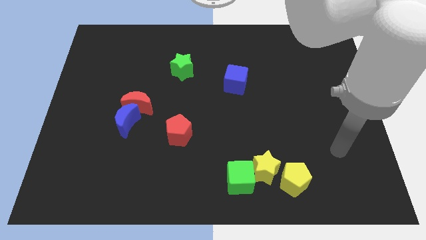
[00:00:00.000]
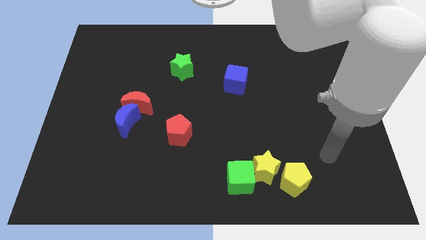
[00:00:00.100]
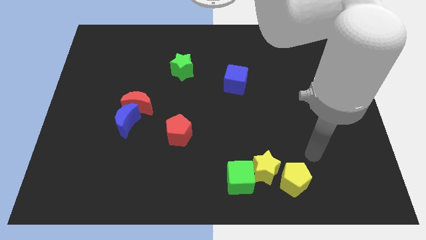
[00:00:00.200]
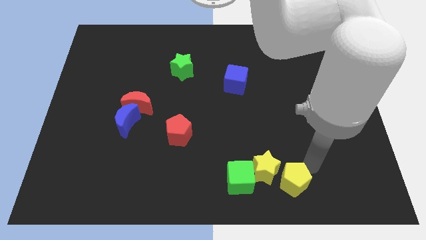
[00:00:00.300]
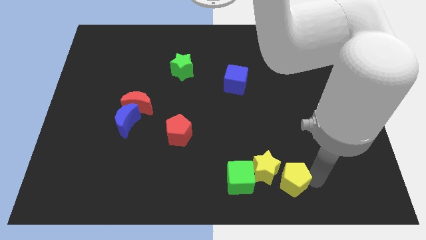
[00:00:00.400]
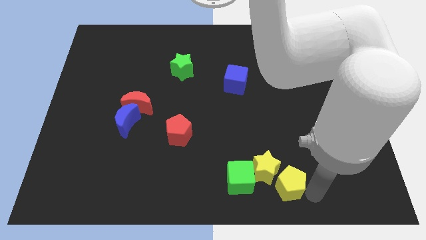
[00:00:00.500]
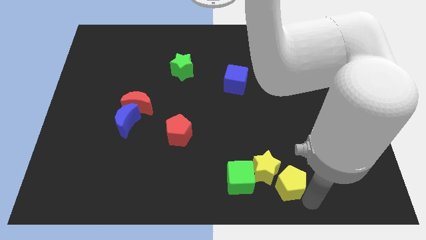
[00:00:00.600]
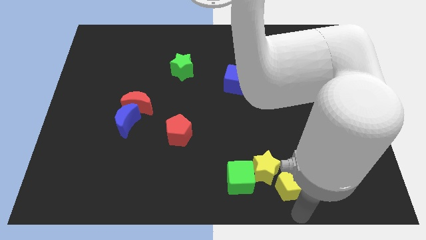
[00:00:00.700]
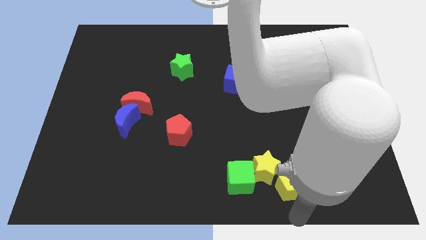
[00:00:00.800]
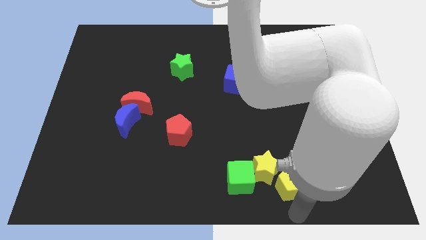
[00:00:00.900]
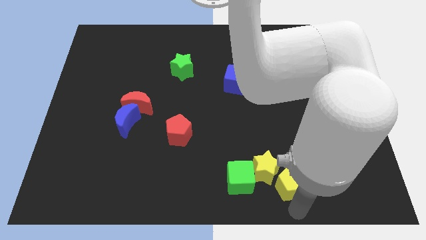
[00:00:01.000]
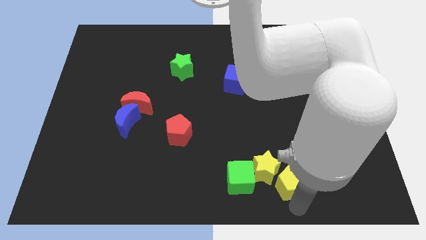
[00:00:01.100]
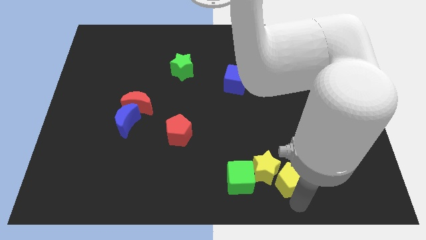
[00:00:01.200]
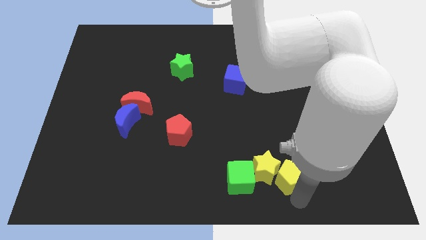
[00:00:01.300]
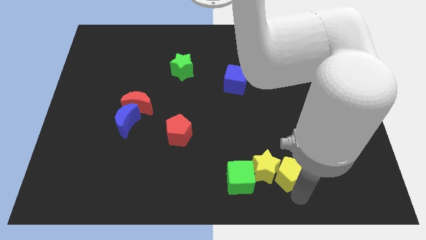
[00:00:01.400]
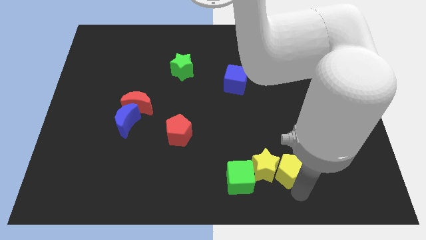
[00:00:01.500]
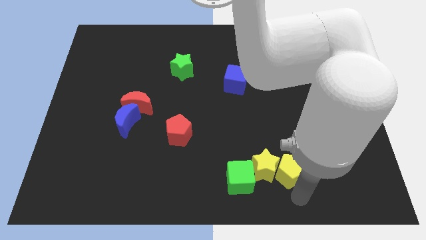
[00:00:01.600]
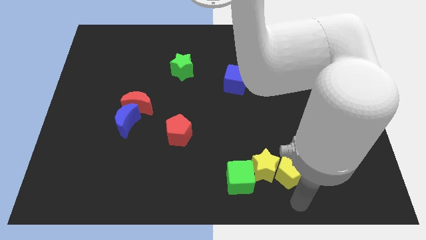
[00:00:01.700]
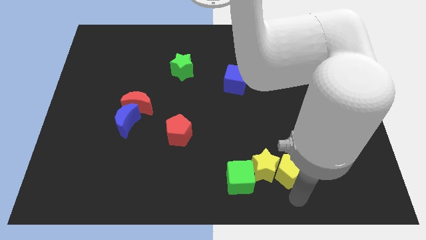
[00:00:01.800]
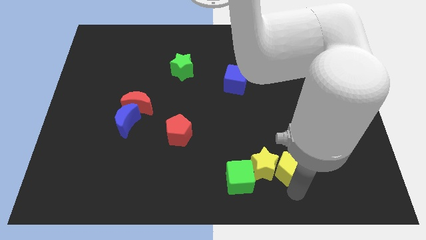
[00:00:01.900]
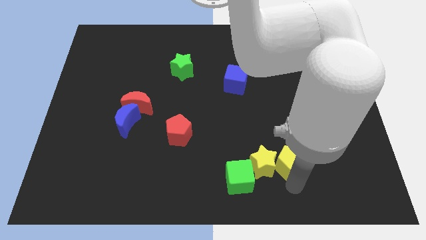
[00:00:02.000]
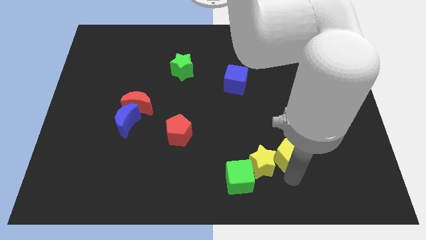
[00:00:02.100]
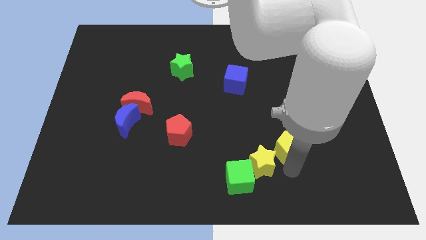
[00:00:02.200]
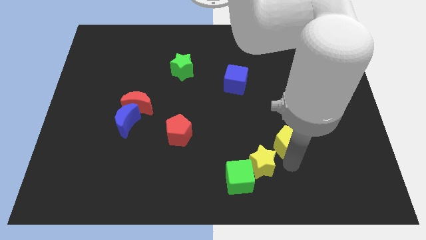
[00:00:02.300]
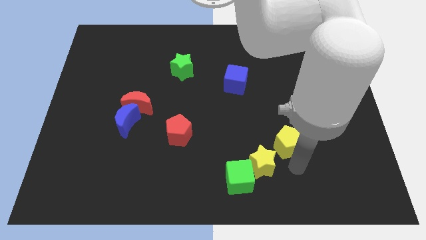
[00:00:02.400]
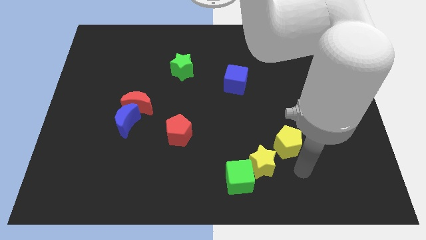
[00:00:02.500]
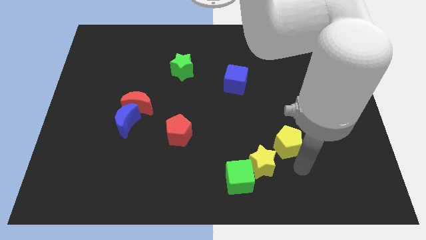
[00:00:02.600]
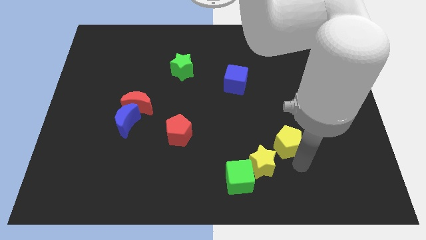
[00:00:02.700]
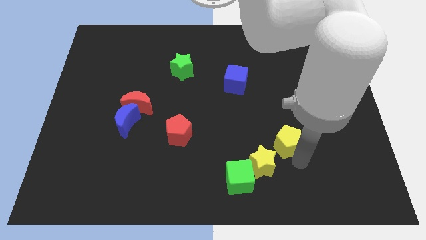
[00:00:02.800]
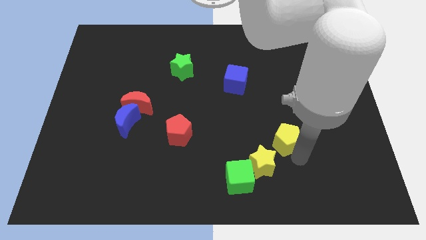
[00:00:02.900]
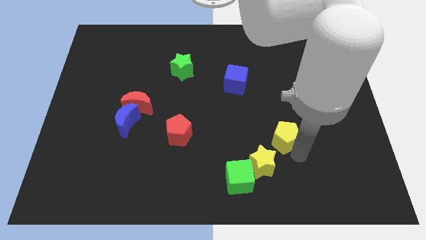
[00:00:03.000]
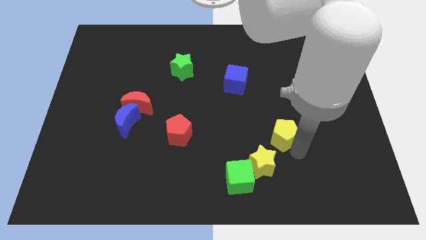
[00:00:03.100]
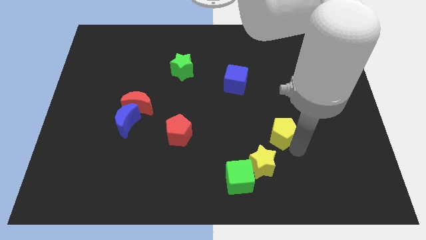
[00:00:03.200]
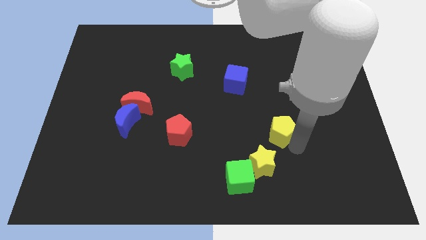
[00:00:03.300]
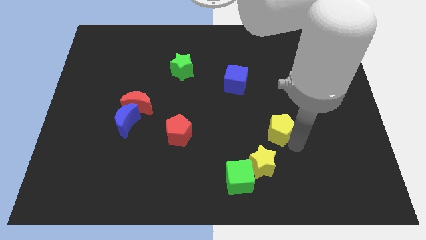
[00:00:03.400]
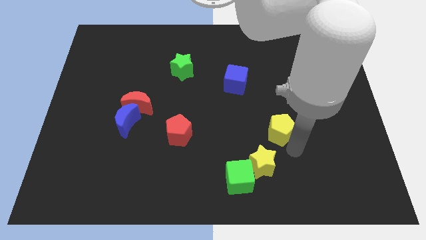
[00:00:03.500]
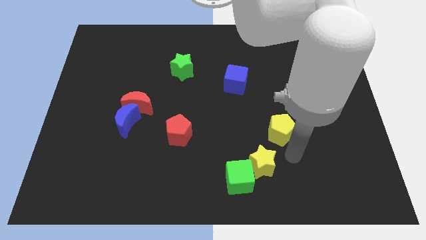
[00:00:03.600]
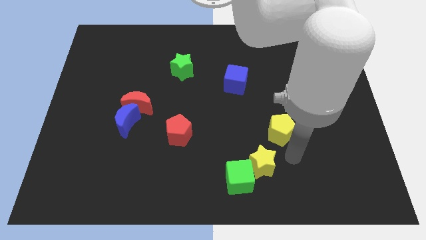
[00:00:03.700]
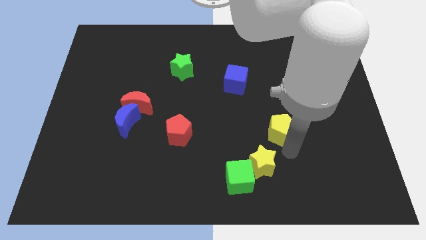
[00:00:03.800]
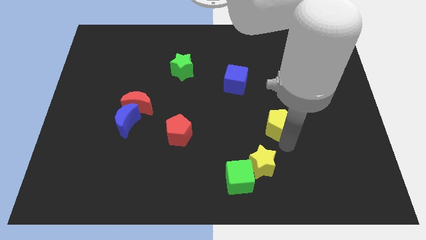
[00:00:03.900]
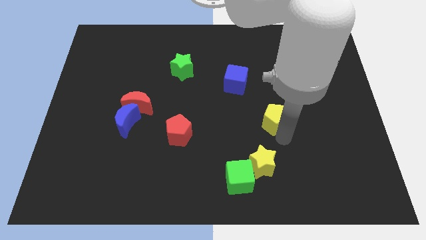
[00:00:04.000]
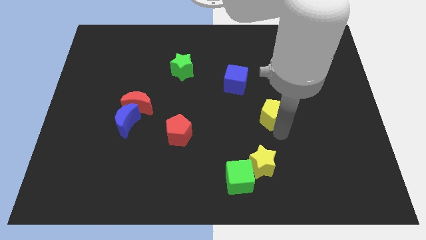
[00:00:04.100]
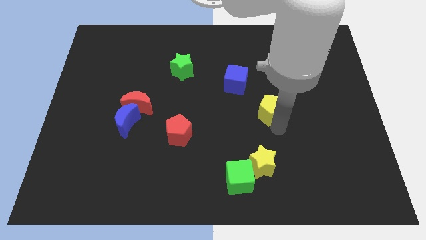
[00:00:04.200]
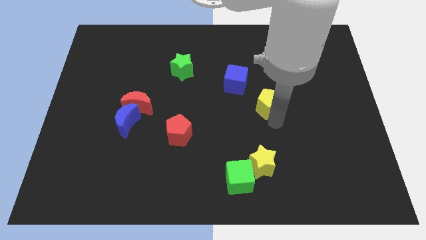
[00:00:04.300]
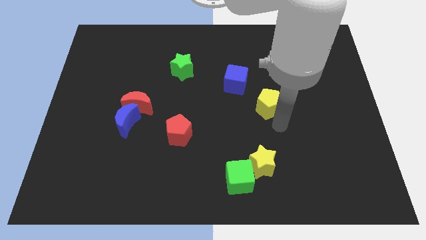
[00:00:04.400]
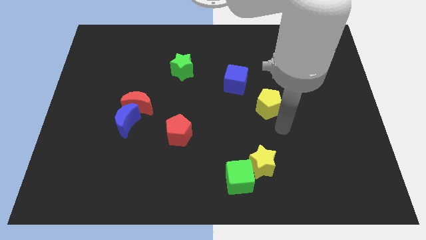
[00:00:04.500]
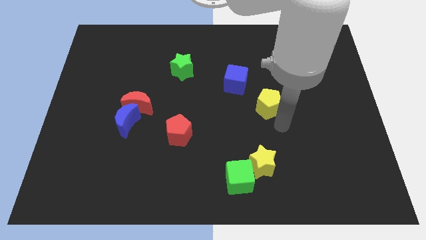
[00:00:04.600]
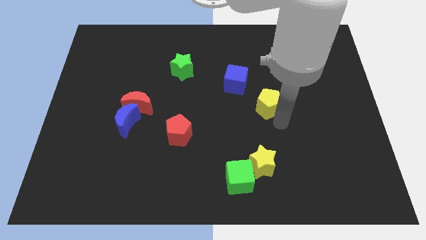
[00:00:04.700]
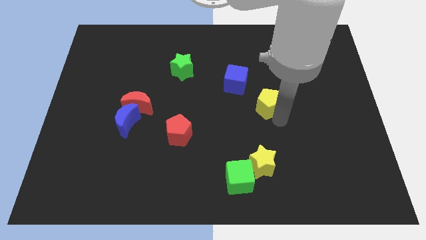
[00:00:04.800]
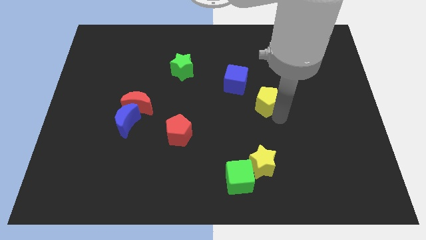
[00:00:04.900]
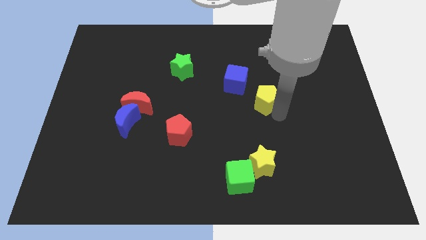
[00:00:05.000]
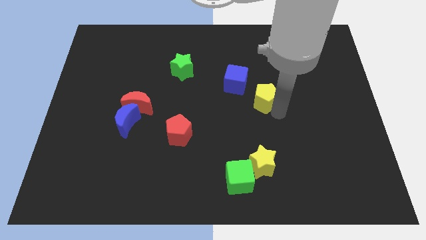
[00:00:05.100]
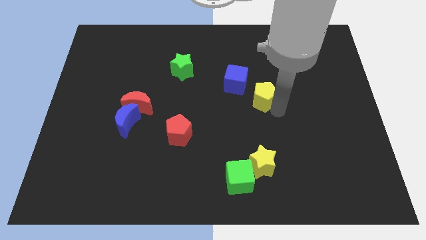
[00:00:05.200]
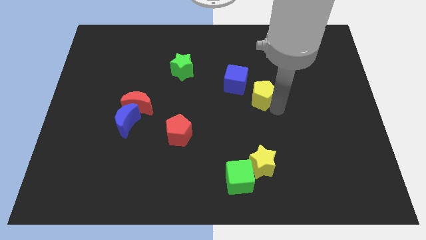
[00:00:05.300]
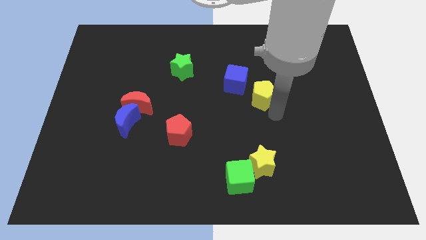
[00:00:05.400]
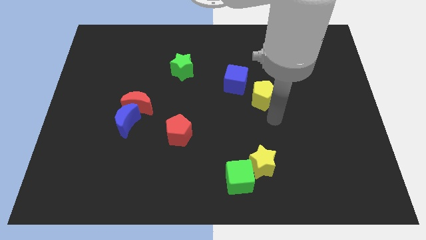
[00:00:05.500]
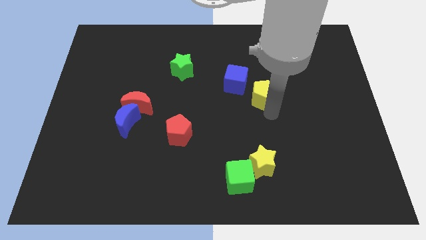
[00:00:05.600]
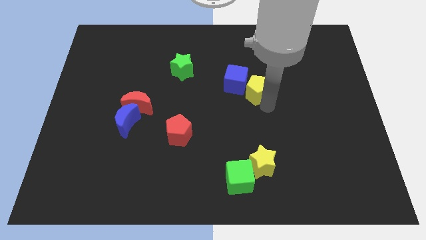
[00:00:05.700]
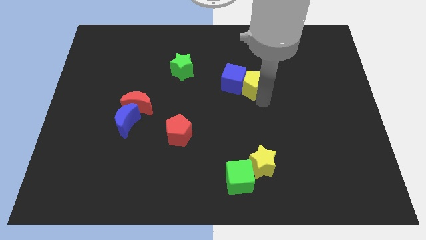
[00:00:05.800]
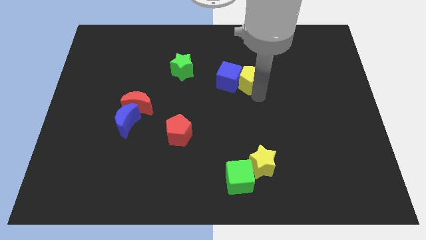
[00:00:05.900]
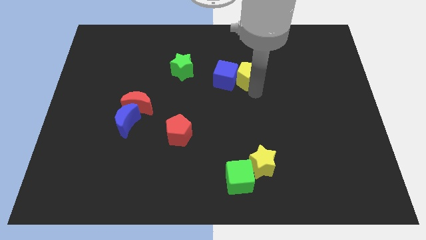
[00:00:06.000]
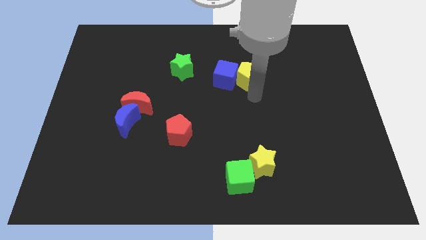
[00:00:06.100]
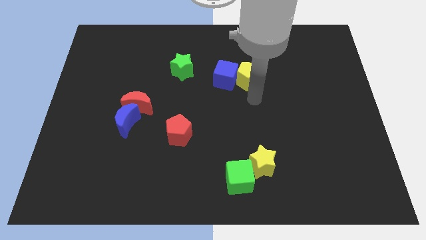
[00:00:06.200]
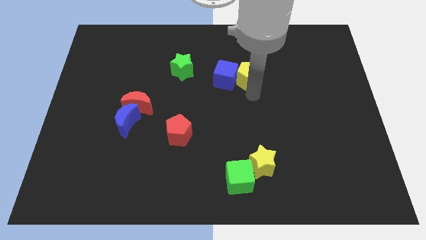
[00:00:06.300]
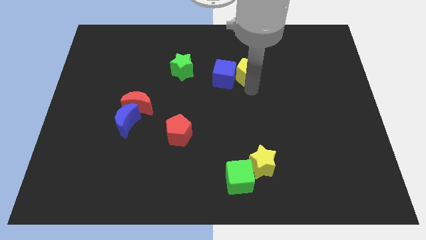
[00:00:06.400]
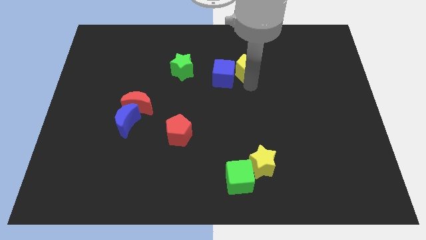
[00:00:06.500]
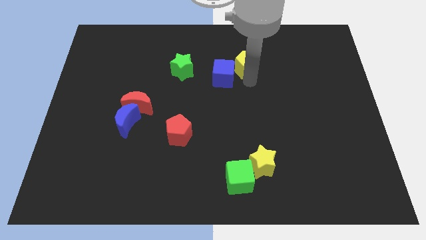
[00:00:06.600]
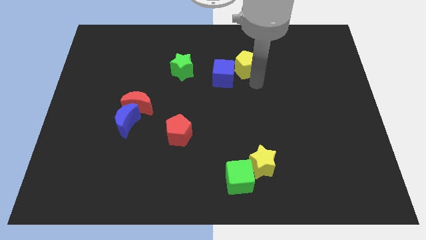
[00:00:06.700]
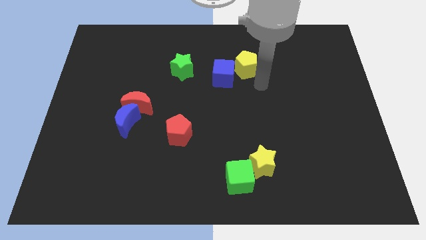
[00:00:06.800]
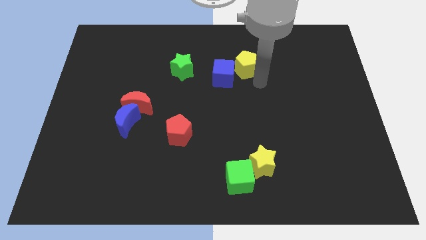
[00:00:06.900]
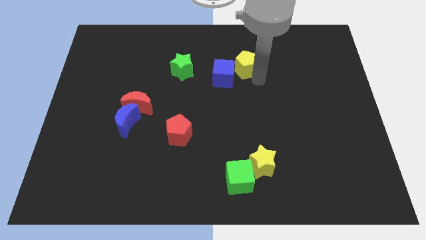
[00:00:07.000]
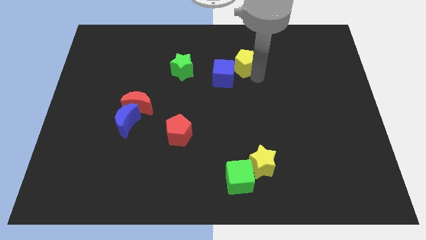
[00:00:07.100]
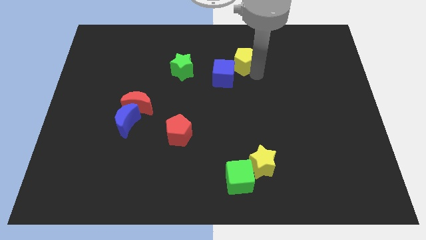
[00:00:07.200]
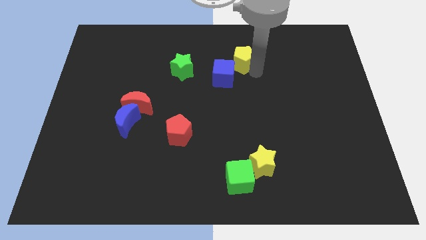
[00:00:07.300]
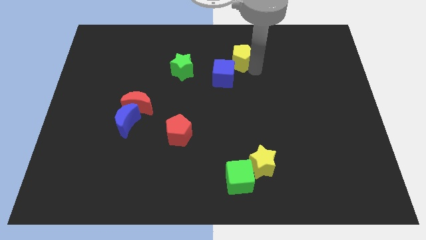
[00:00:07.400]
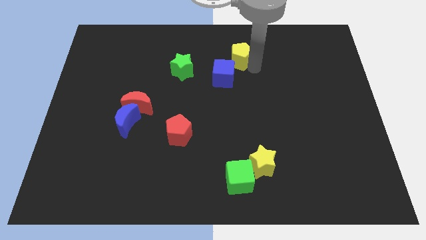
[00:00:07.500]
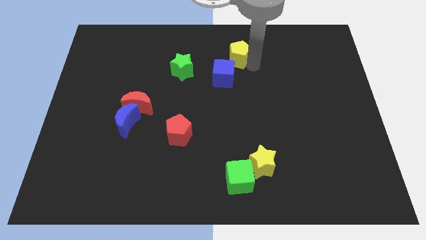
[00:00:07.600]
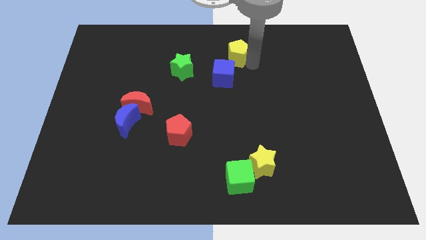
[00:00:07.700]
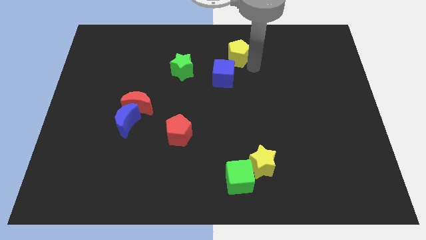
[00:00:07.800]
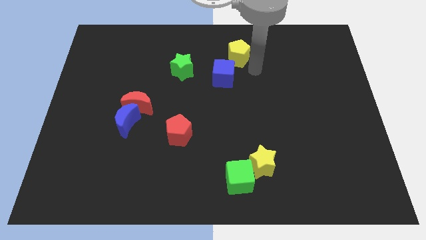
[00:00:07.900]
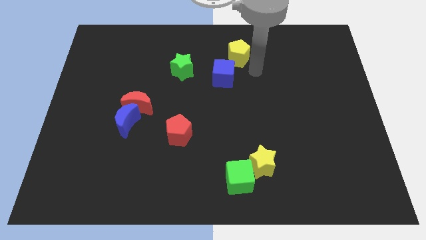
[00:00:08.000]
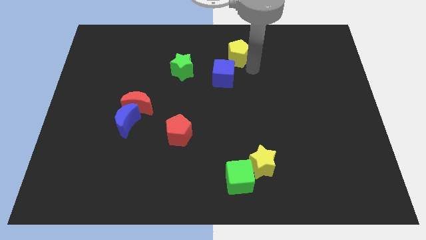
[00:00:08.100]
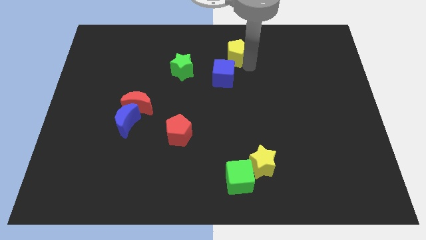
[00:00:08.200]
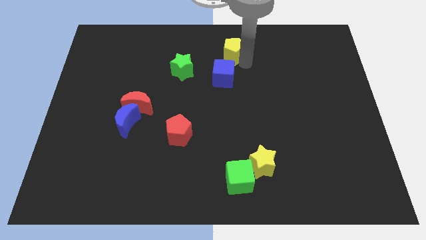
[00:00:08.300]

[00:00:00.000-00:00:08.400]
put the yellow pentagon to the top side
